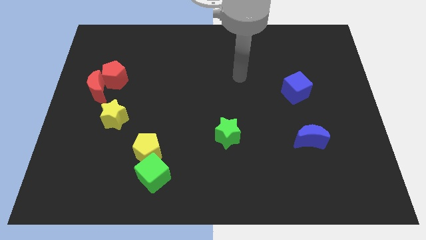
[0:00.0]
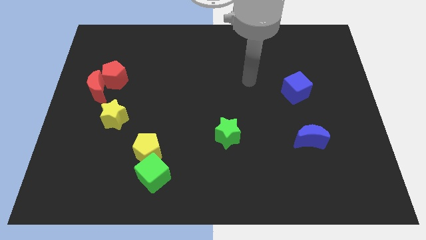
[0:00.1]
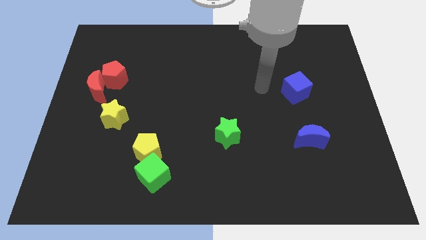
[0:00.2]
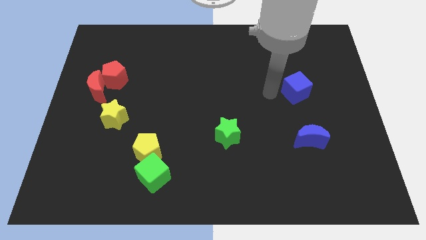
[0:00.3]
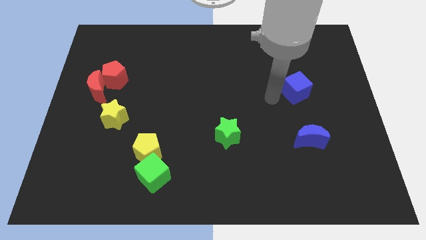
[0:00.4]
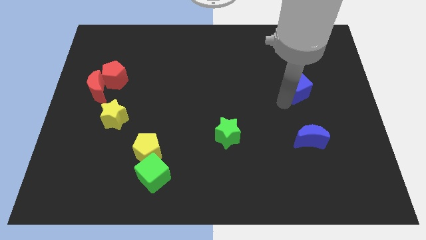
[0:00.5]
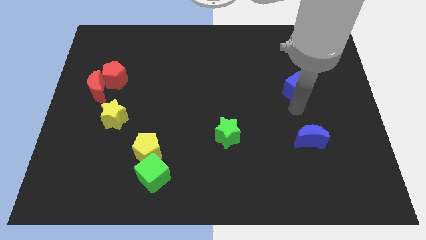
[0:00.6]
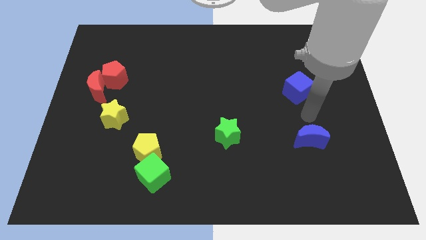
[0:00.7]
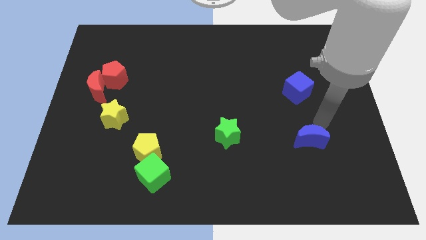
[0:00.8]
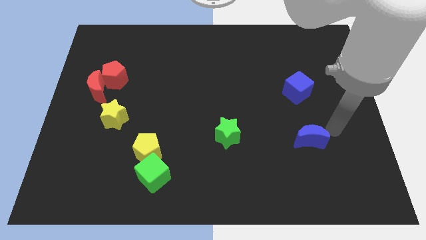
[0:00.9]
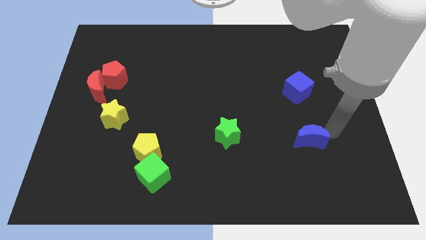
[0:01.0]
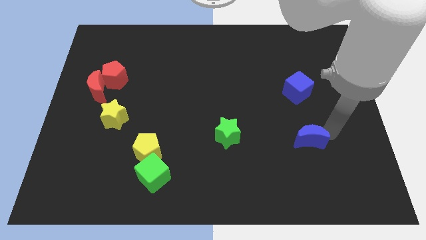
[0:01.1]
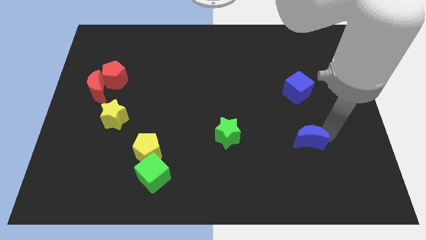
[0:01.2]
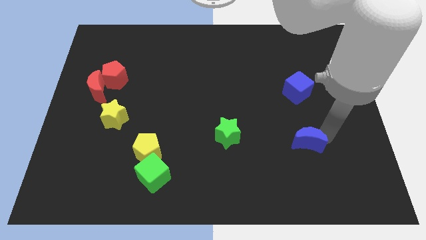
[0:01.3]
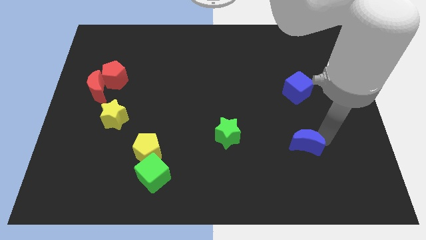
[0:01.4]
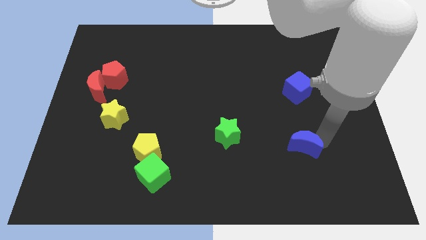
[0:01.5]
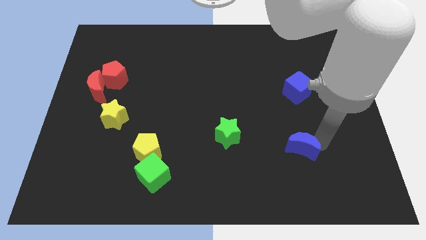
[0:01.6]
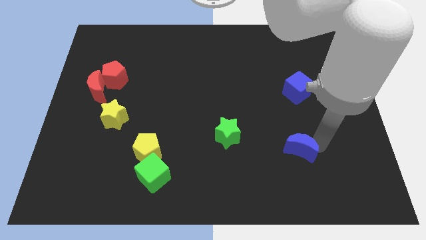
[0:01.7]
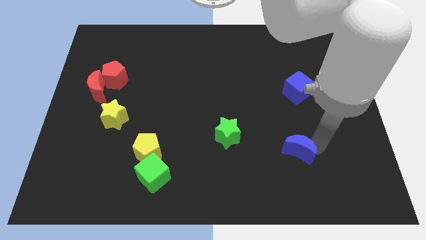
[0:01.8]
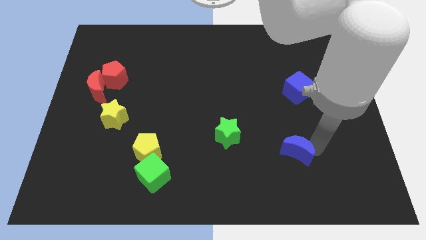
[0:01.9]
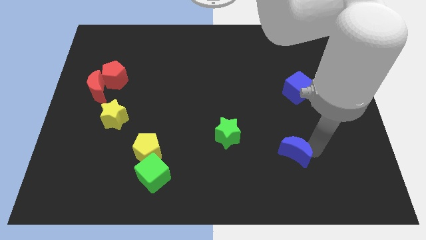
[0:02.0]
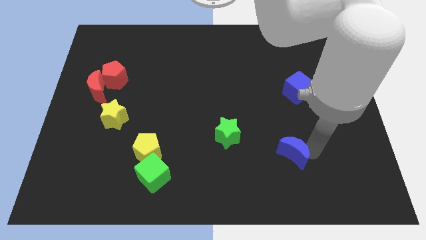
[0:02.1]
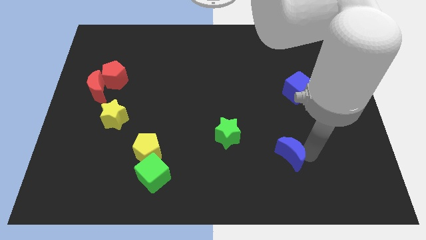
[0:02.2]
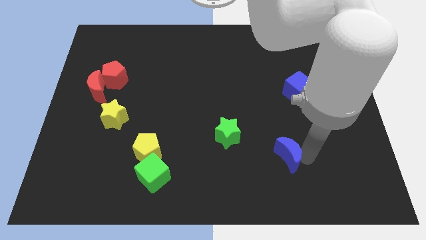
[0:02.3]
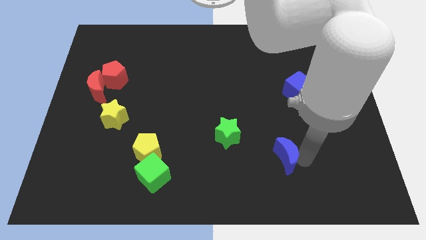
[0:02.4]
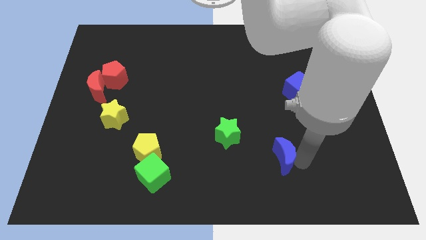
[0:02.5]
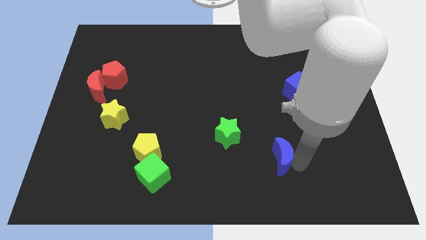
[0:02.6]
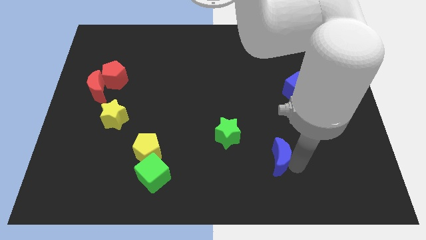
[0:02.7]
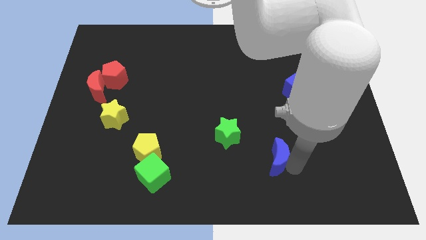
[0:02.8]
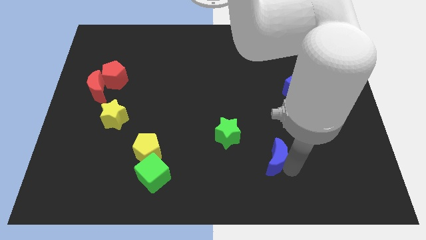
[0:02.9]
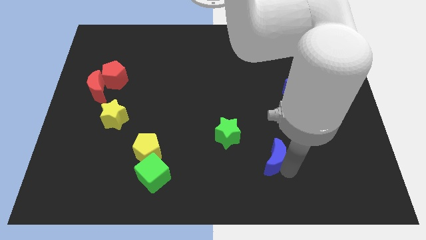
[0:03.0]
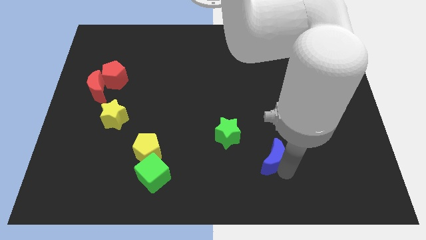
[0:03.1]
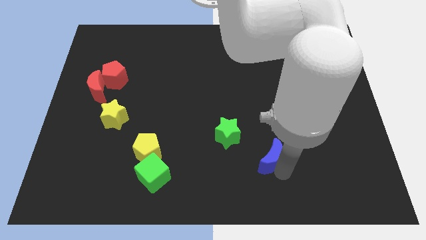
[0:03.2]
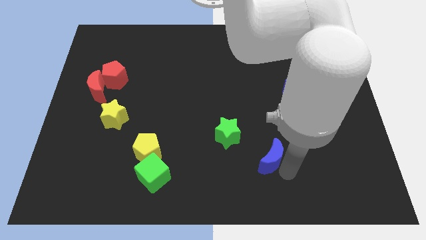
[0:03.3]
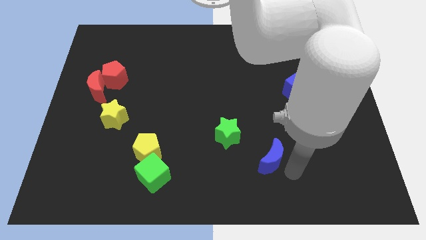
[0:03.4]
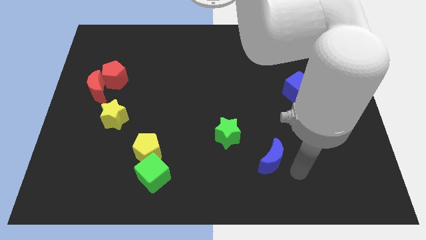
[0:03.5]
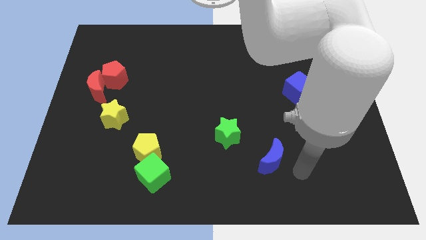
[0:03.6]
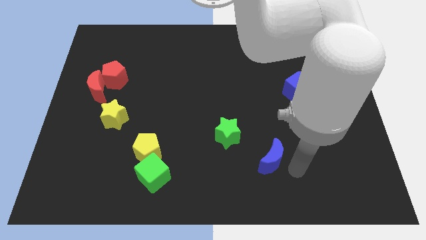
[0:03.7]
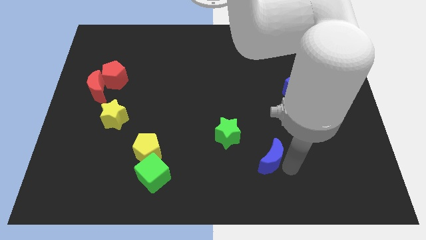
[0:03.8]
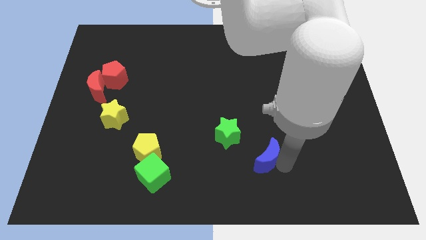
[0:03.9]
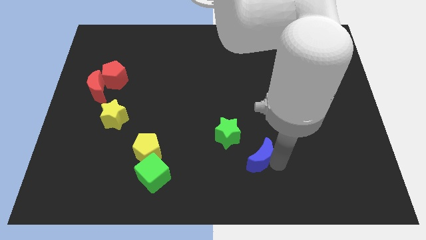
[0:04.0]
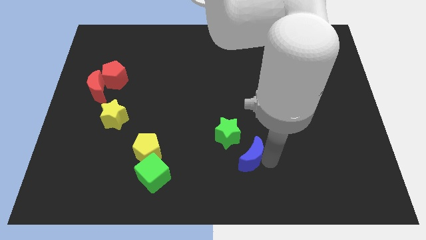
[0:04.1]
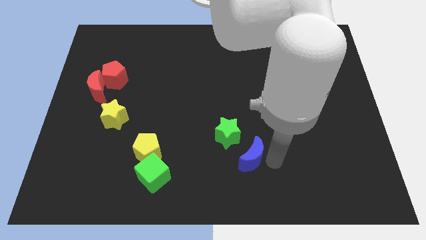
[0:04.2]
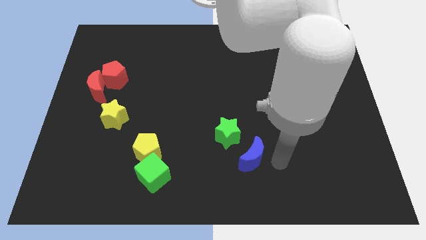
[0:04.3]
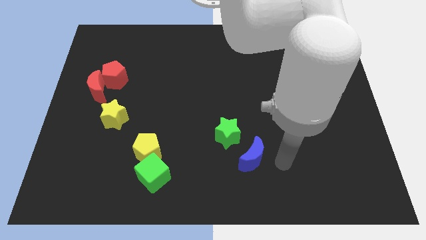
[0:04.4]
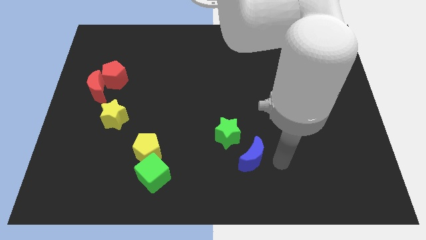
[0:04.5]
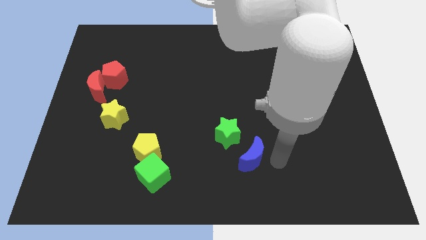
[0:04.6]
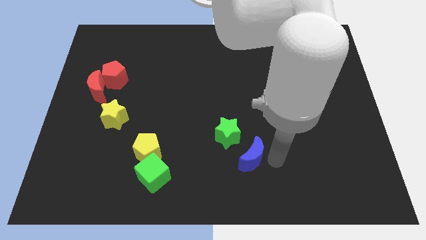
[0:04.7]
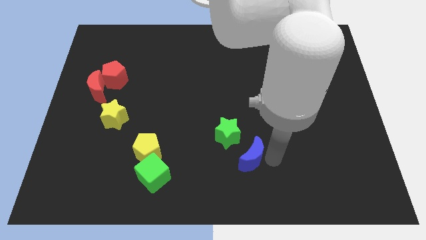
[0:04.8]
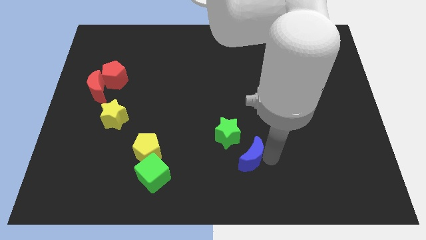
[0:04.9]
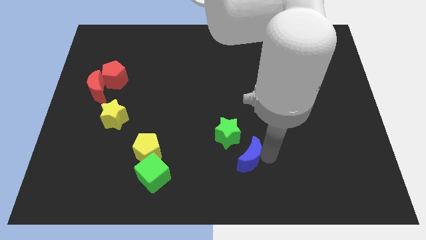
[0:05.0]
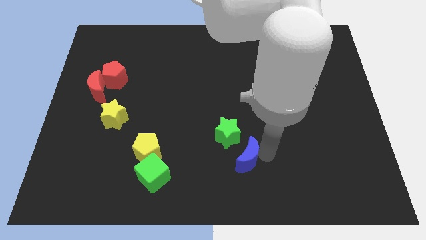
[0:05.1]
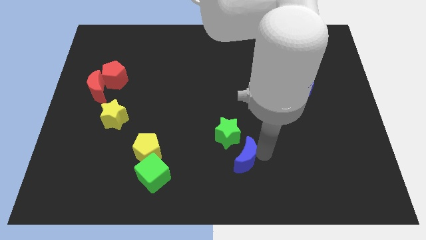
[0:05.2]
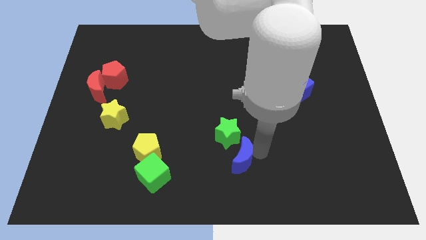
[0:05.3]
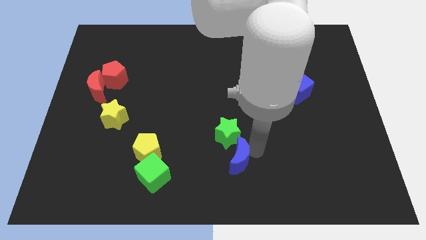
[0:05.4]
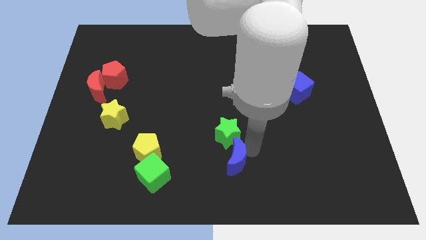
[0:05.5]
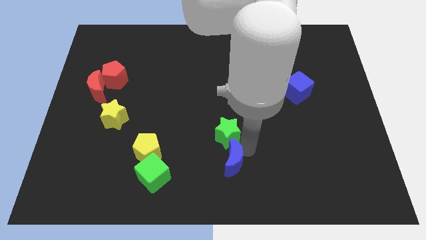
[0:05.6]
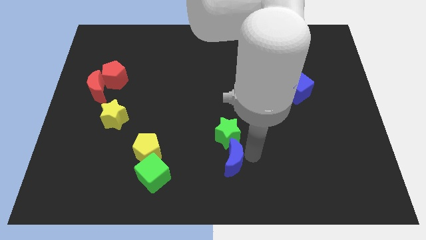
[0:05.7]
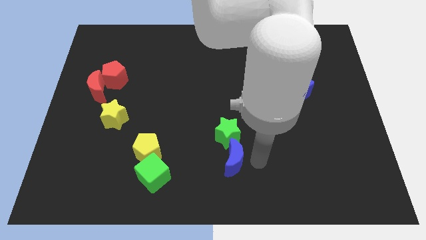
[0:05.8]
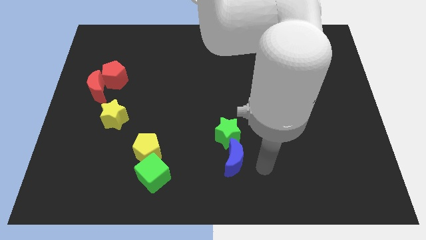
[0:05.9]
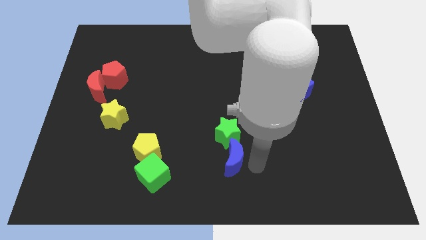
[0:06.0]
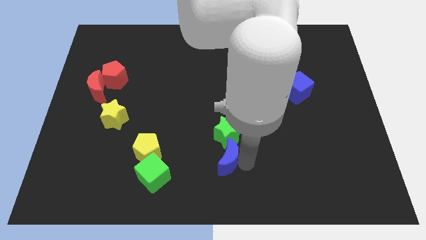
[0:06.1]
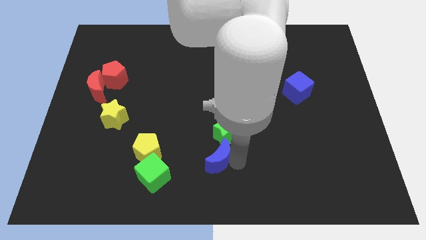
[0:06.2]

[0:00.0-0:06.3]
slide the blue moon to the right side of the yellow pentagon

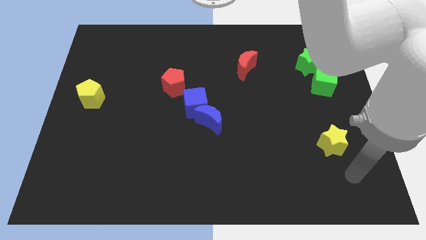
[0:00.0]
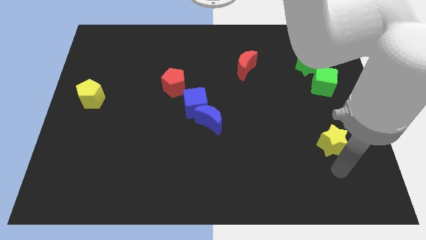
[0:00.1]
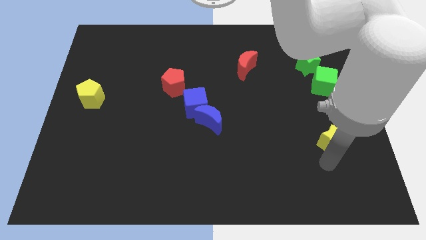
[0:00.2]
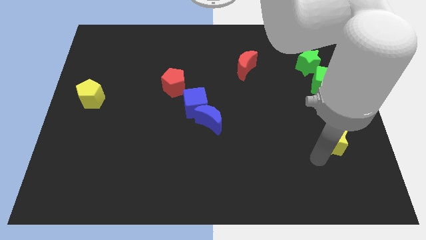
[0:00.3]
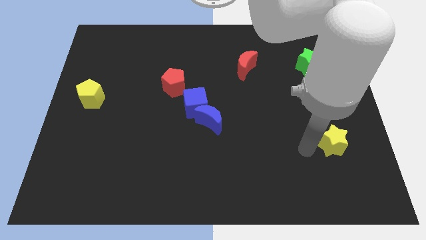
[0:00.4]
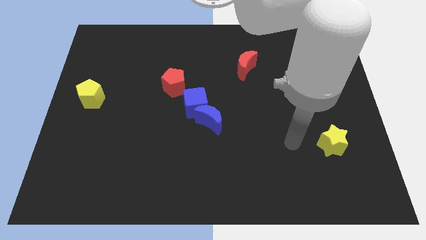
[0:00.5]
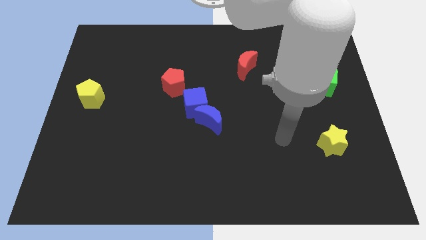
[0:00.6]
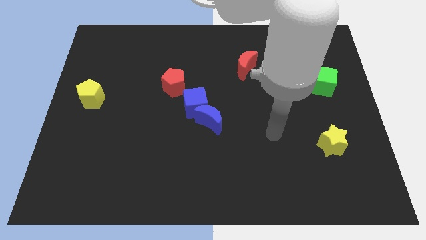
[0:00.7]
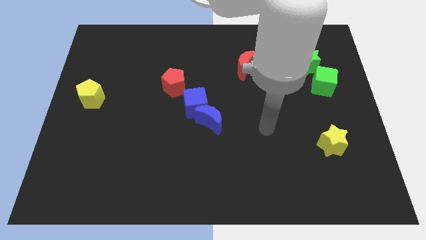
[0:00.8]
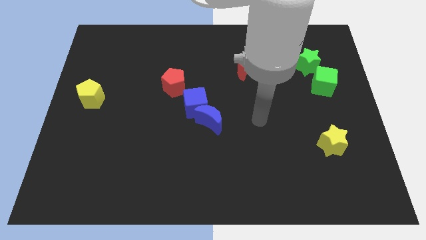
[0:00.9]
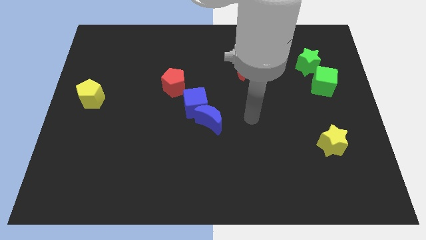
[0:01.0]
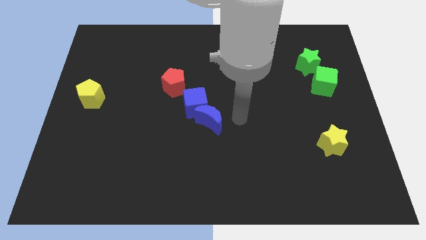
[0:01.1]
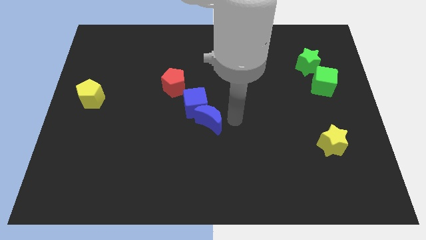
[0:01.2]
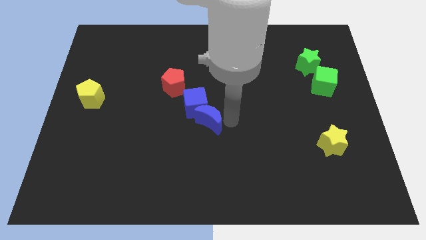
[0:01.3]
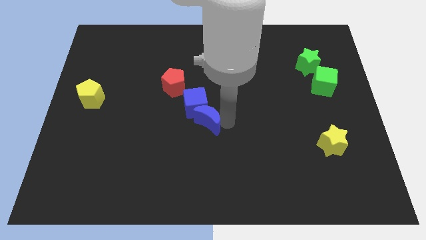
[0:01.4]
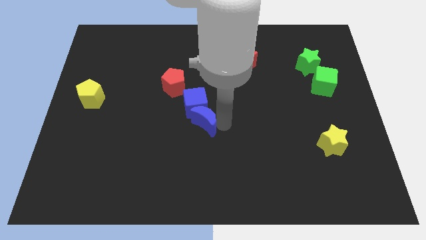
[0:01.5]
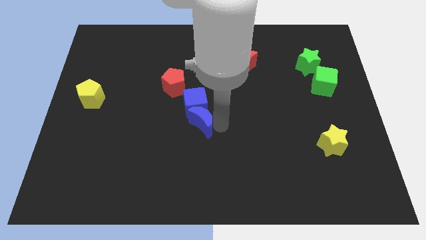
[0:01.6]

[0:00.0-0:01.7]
put the blue moon to the bottom left of the blue cube
